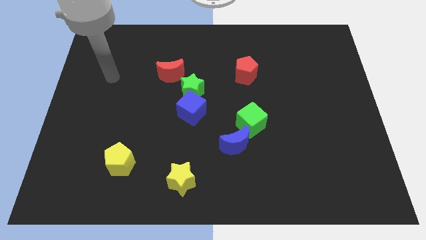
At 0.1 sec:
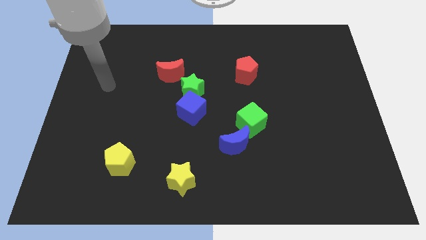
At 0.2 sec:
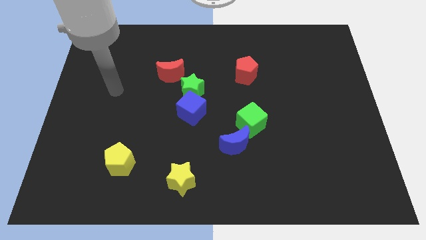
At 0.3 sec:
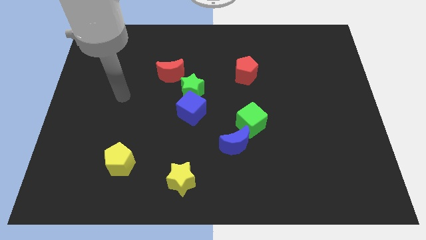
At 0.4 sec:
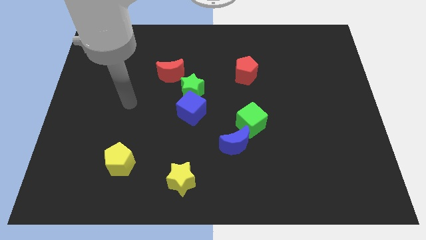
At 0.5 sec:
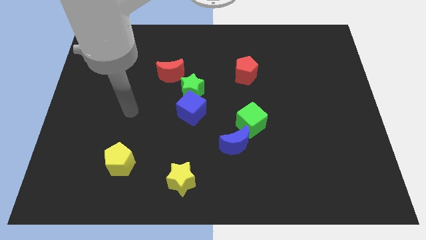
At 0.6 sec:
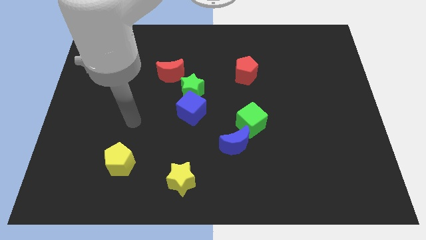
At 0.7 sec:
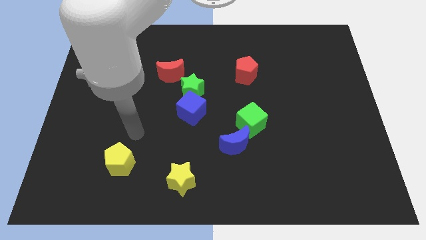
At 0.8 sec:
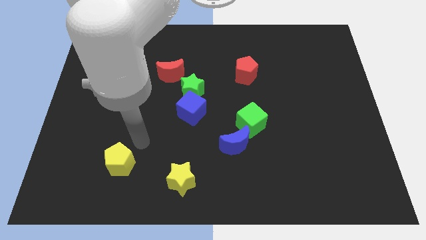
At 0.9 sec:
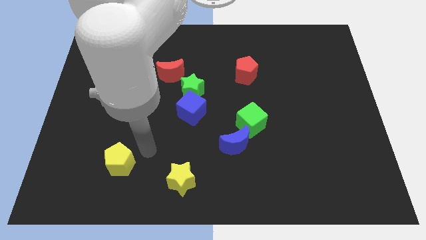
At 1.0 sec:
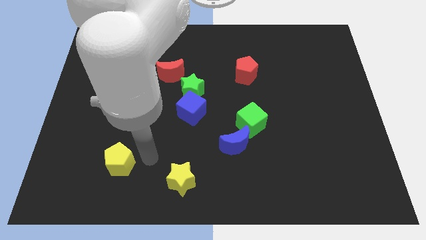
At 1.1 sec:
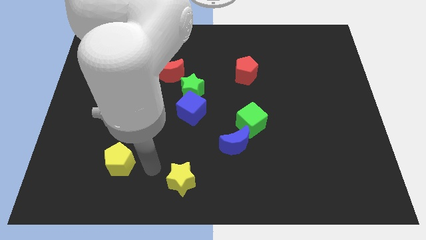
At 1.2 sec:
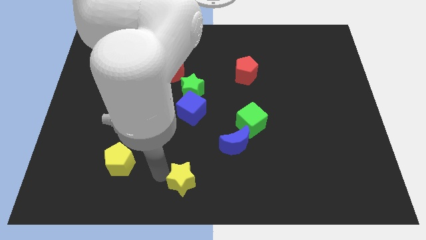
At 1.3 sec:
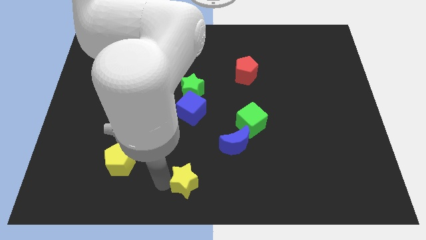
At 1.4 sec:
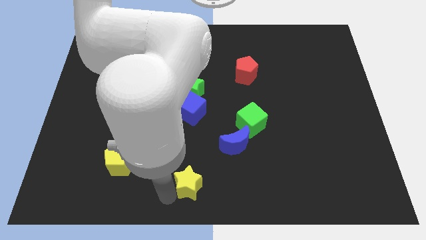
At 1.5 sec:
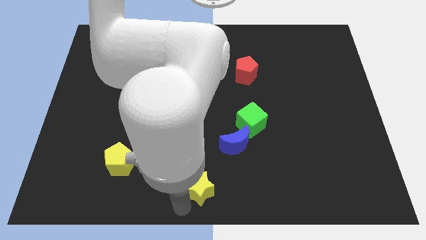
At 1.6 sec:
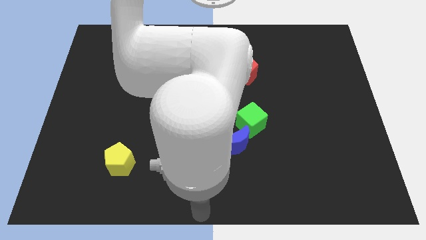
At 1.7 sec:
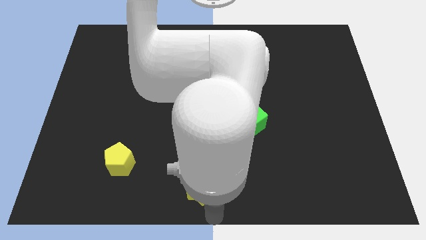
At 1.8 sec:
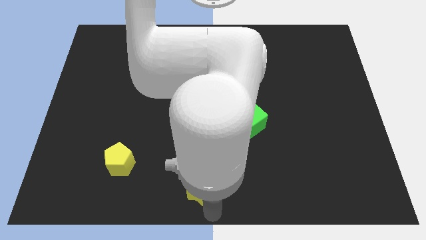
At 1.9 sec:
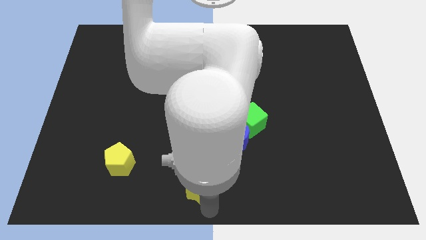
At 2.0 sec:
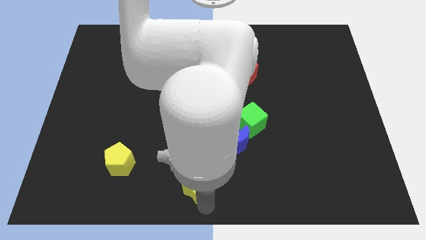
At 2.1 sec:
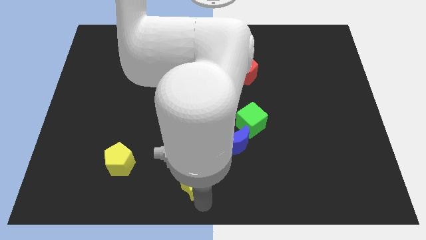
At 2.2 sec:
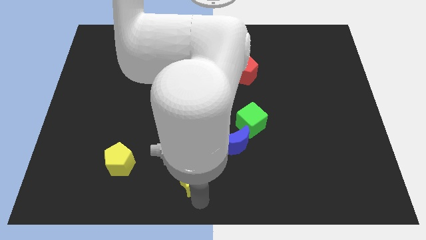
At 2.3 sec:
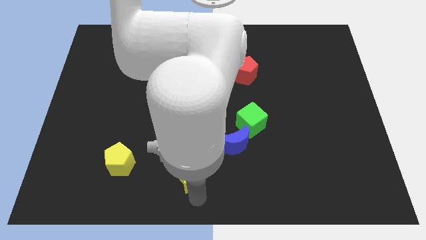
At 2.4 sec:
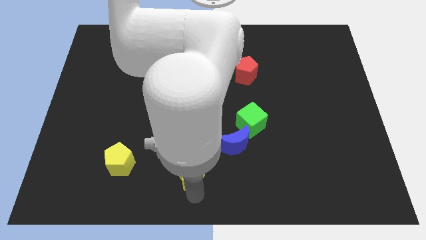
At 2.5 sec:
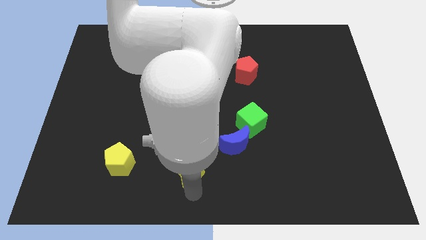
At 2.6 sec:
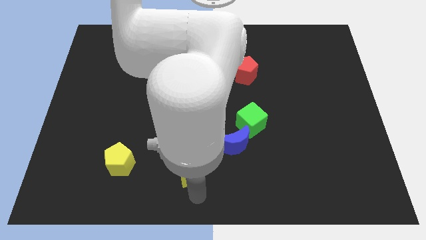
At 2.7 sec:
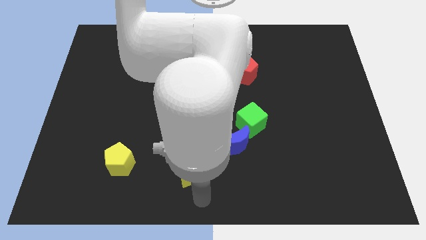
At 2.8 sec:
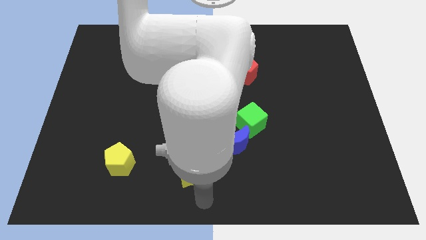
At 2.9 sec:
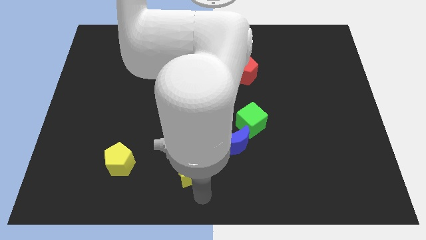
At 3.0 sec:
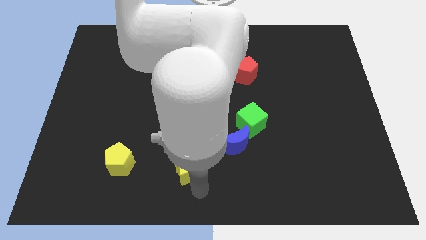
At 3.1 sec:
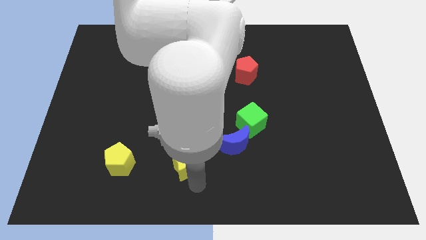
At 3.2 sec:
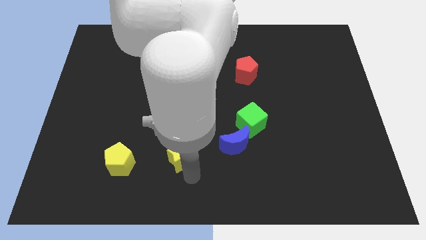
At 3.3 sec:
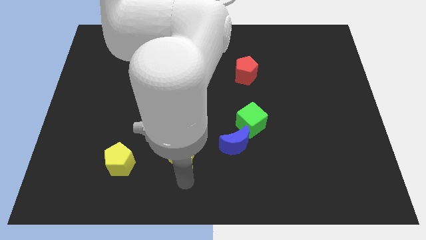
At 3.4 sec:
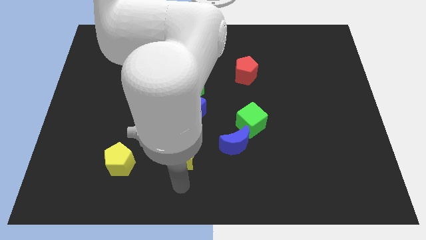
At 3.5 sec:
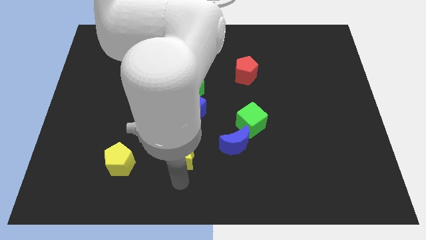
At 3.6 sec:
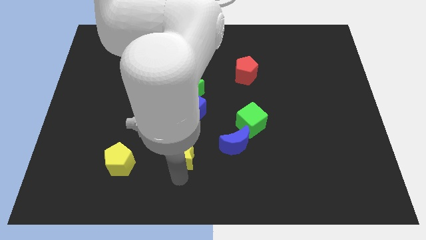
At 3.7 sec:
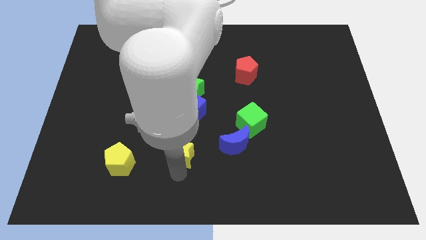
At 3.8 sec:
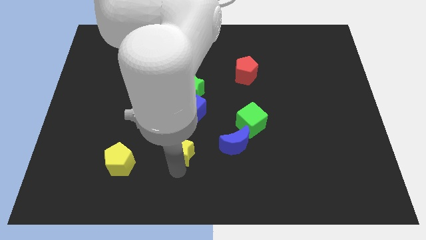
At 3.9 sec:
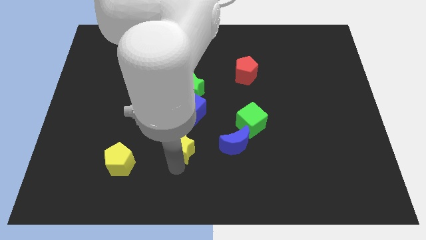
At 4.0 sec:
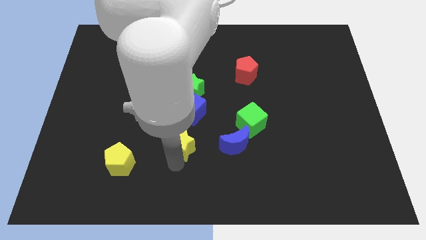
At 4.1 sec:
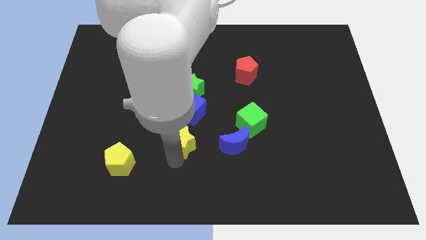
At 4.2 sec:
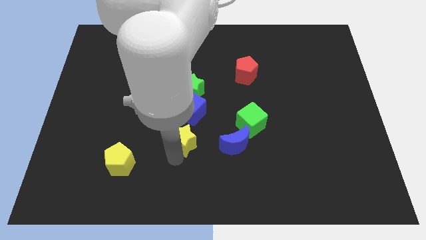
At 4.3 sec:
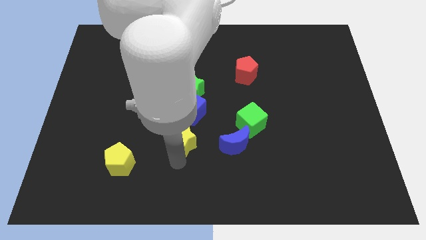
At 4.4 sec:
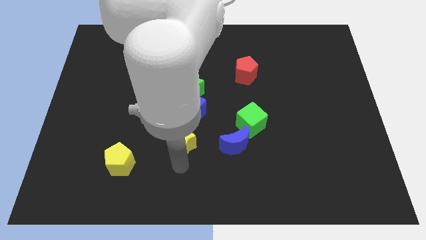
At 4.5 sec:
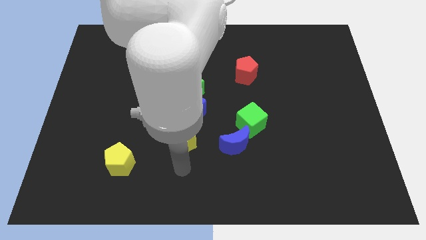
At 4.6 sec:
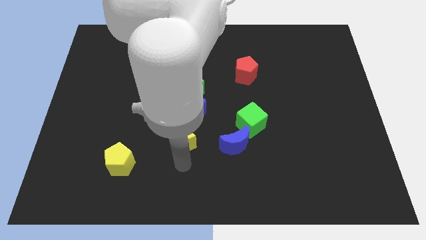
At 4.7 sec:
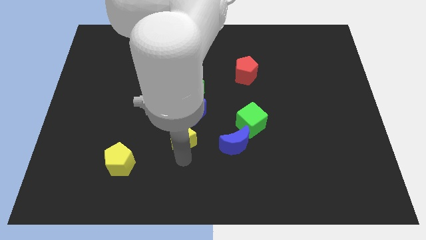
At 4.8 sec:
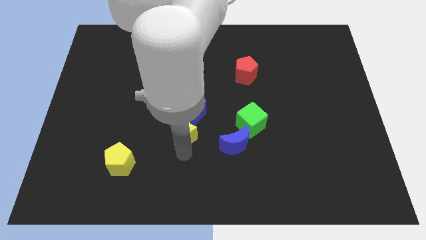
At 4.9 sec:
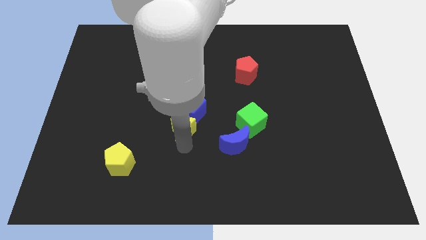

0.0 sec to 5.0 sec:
push the yellow star towards the blue cube

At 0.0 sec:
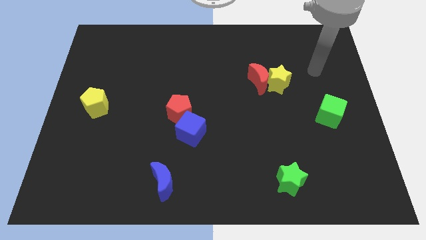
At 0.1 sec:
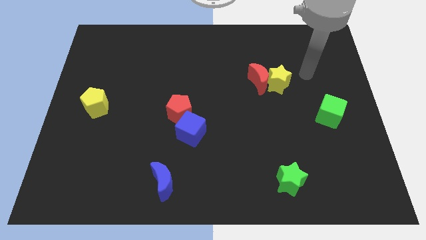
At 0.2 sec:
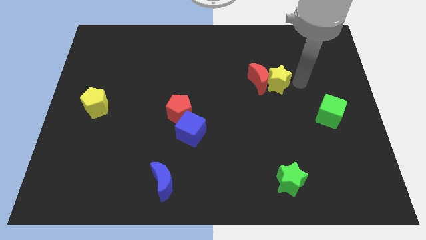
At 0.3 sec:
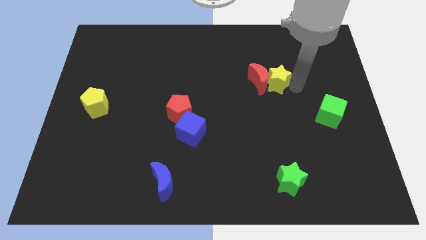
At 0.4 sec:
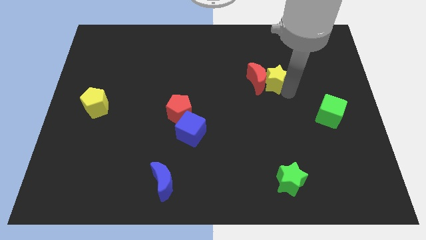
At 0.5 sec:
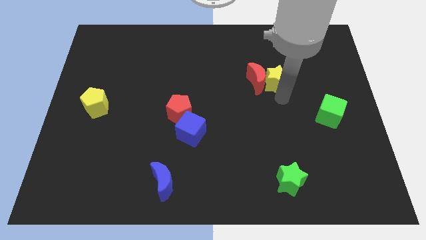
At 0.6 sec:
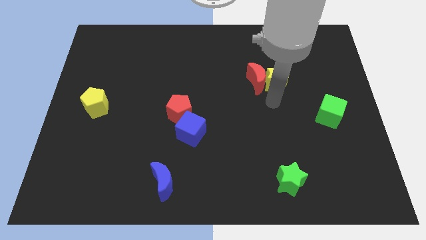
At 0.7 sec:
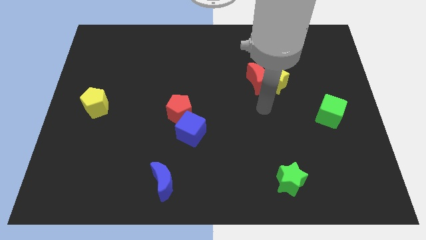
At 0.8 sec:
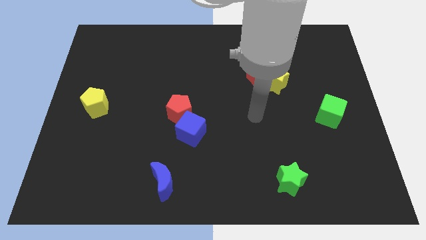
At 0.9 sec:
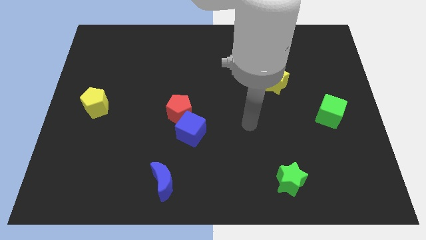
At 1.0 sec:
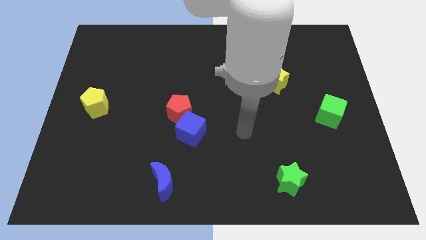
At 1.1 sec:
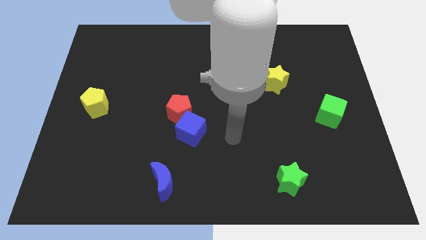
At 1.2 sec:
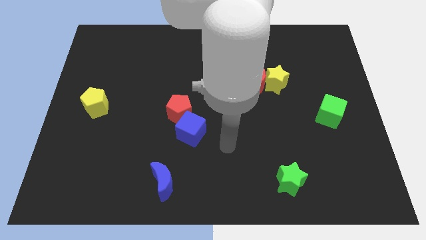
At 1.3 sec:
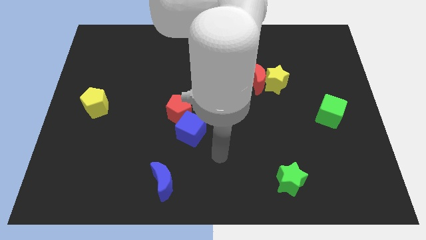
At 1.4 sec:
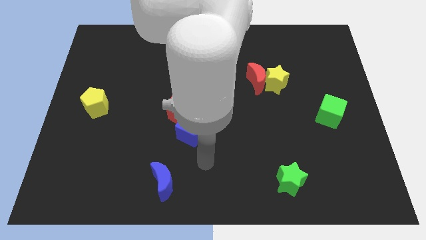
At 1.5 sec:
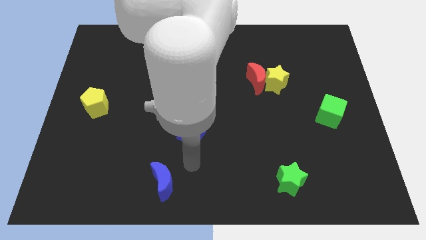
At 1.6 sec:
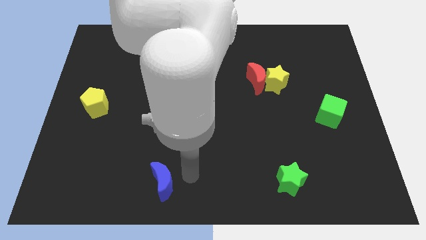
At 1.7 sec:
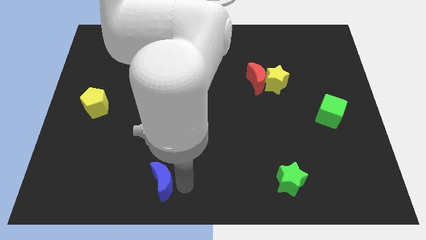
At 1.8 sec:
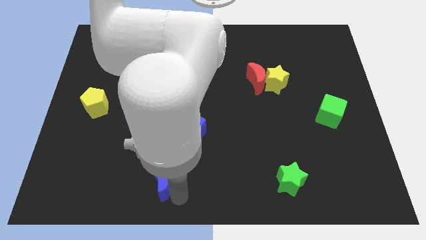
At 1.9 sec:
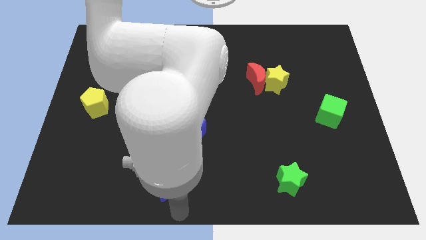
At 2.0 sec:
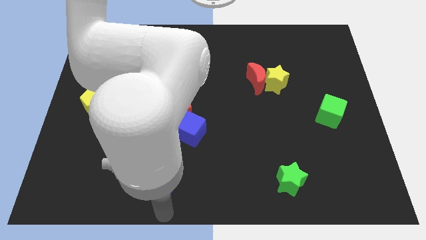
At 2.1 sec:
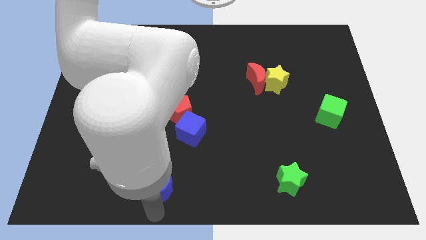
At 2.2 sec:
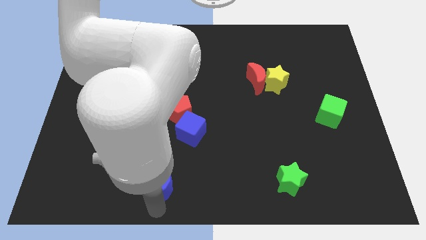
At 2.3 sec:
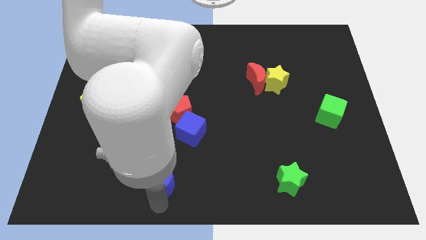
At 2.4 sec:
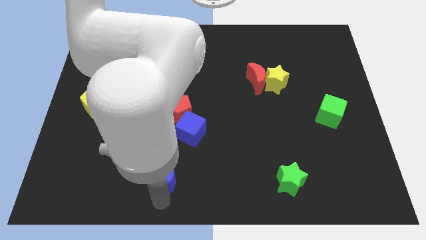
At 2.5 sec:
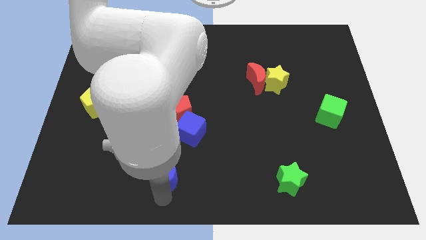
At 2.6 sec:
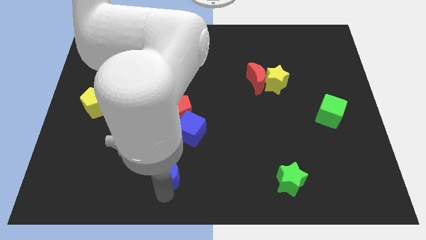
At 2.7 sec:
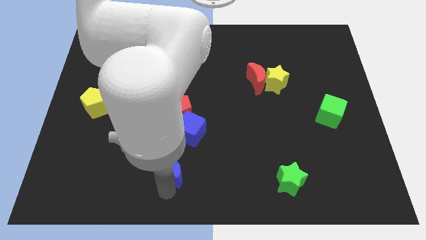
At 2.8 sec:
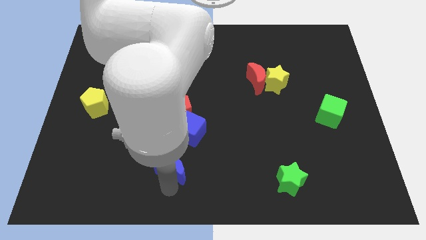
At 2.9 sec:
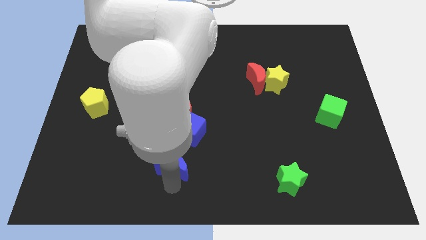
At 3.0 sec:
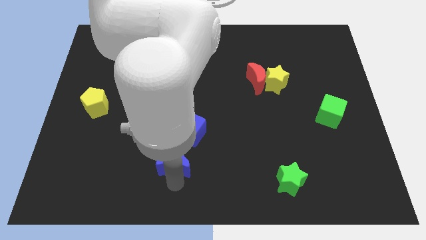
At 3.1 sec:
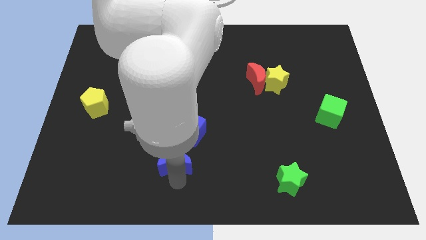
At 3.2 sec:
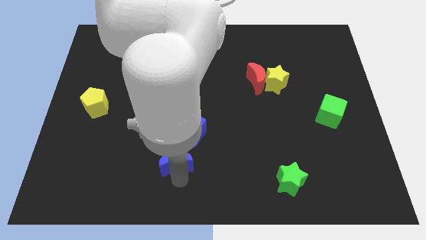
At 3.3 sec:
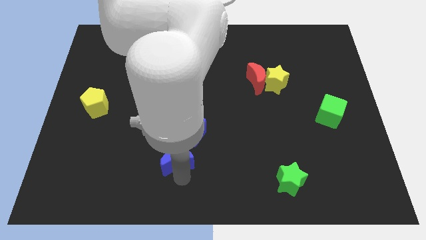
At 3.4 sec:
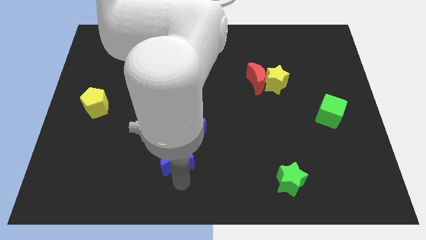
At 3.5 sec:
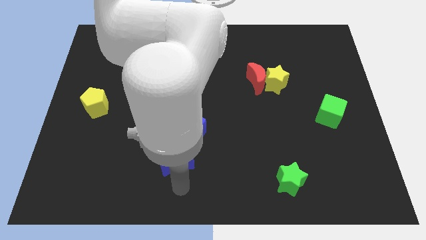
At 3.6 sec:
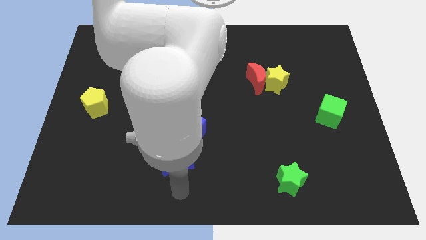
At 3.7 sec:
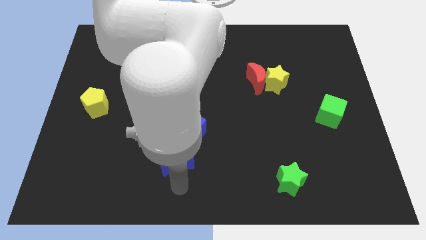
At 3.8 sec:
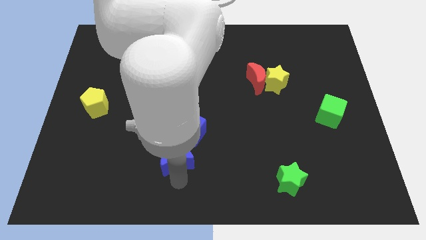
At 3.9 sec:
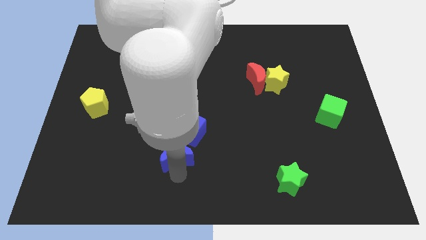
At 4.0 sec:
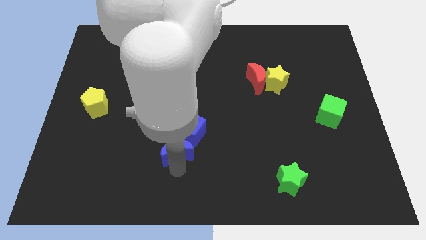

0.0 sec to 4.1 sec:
push the blue moon to the blue cube
